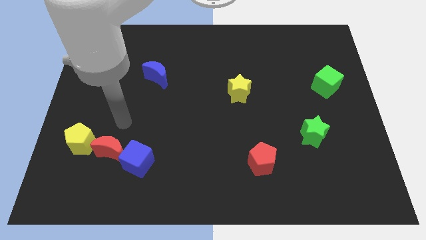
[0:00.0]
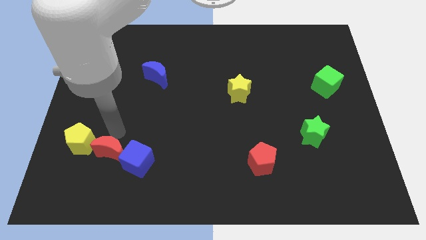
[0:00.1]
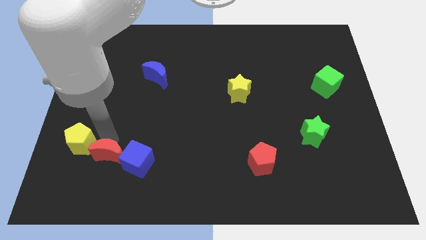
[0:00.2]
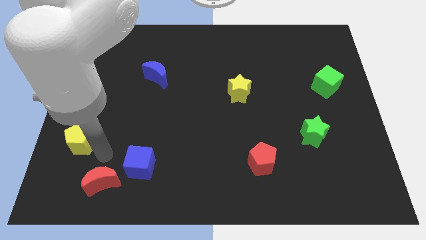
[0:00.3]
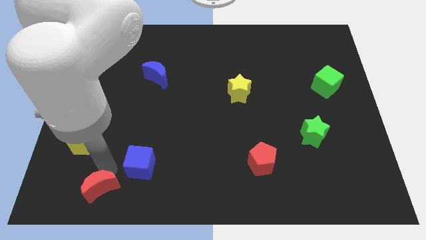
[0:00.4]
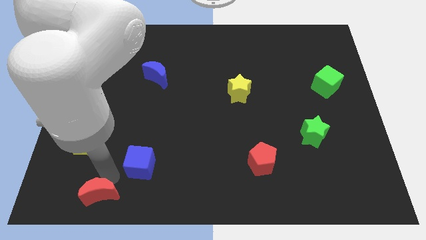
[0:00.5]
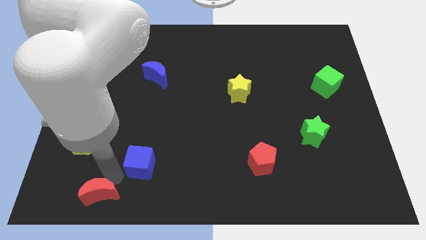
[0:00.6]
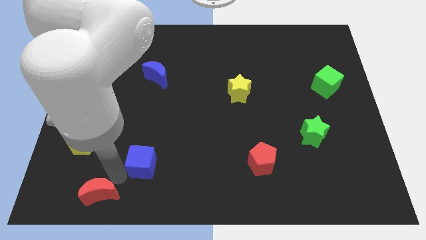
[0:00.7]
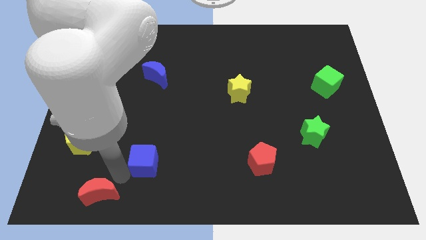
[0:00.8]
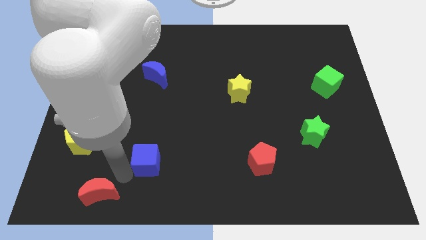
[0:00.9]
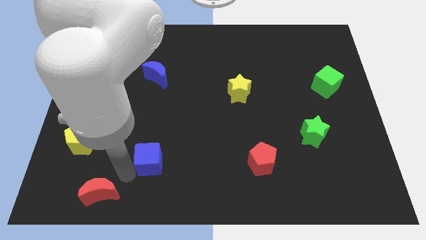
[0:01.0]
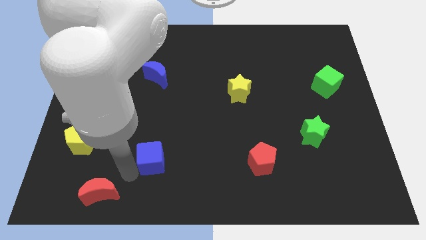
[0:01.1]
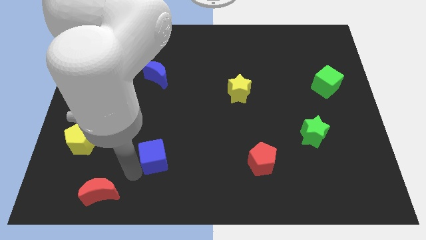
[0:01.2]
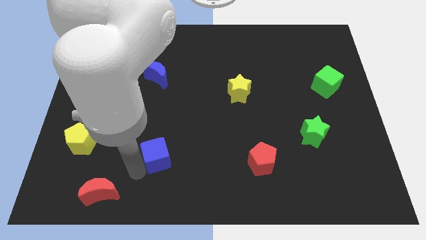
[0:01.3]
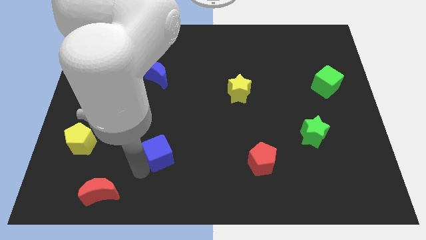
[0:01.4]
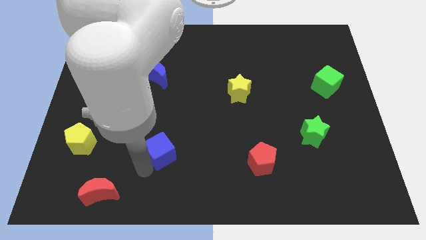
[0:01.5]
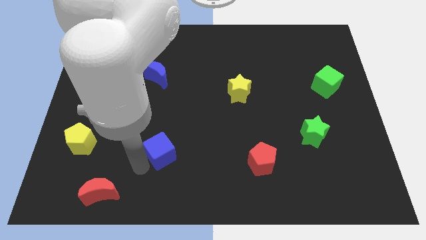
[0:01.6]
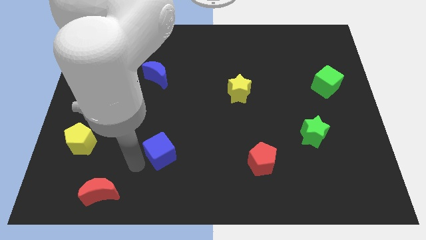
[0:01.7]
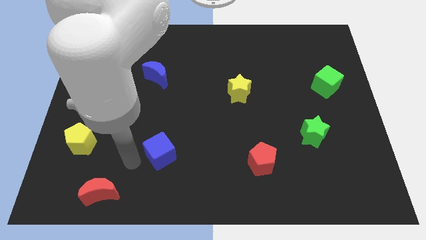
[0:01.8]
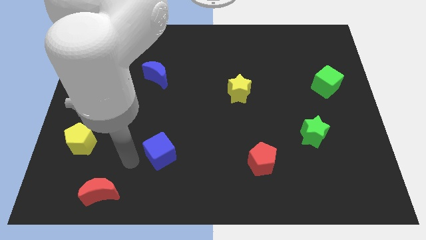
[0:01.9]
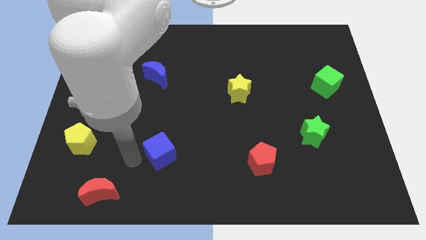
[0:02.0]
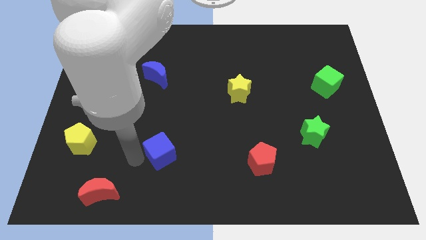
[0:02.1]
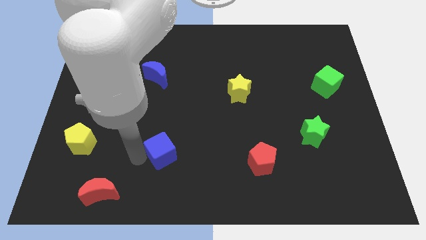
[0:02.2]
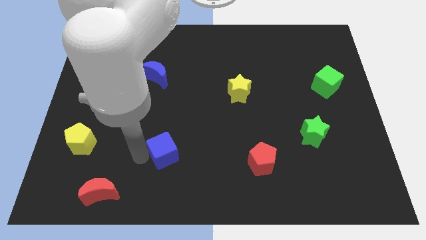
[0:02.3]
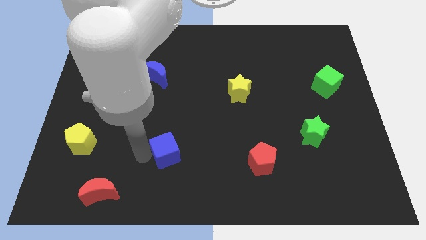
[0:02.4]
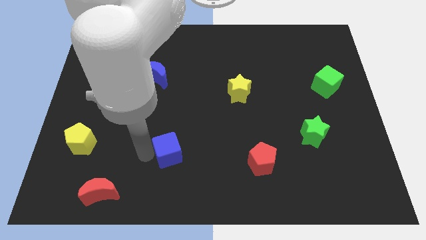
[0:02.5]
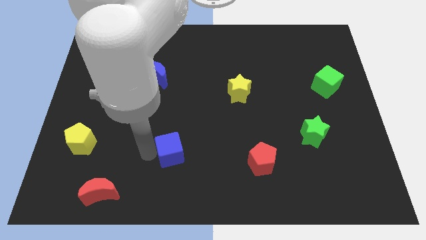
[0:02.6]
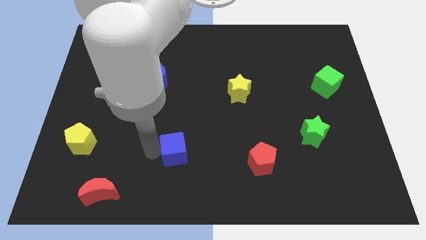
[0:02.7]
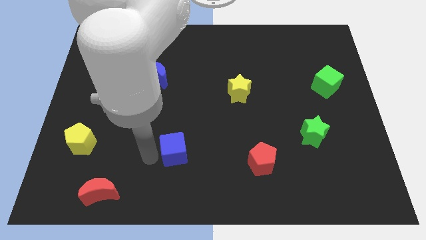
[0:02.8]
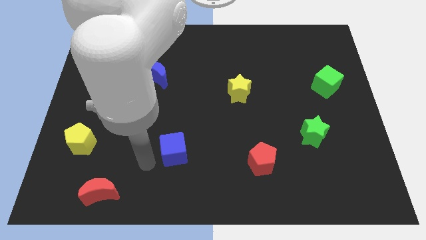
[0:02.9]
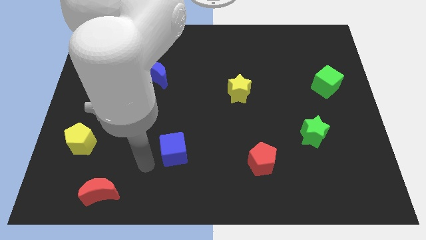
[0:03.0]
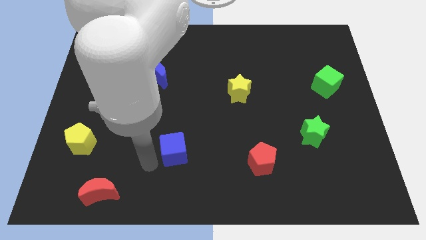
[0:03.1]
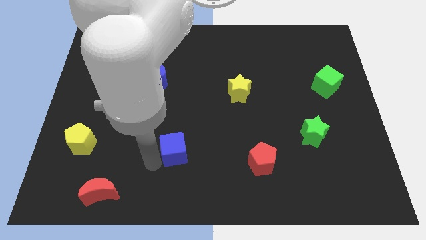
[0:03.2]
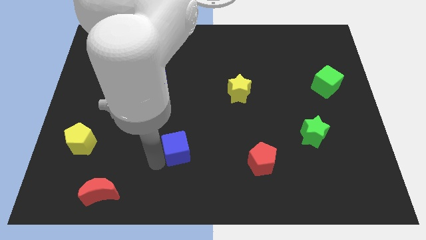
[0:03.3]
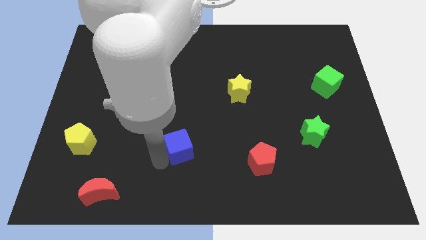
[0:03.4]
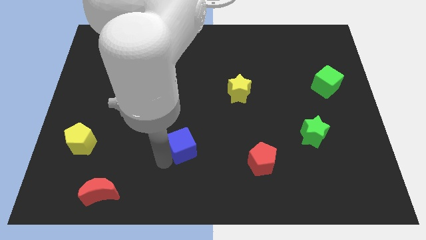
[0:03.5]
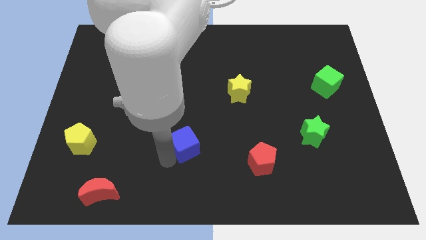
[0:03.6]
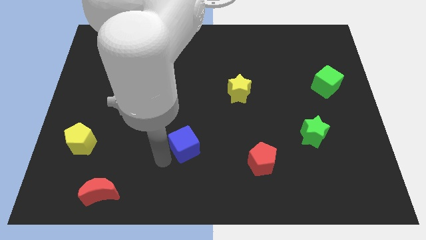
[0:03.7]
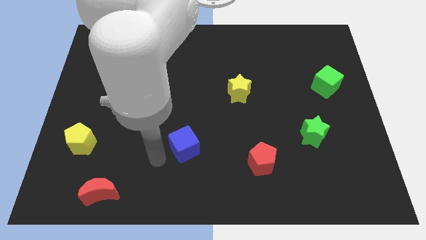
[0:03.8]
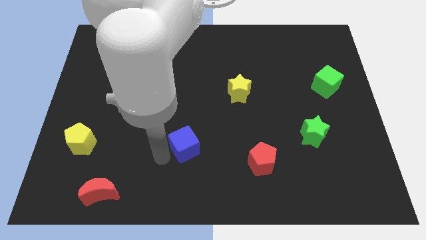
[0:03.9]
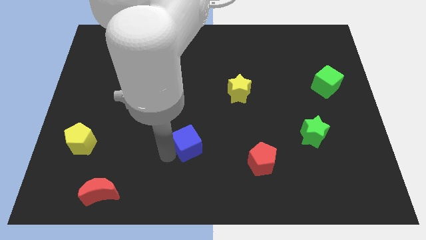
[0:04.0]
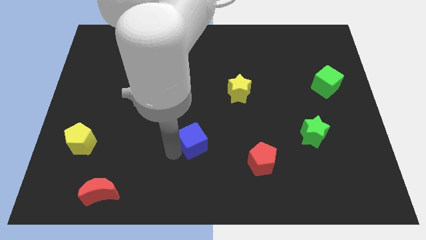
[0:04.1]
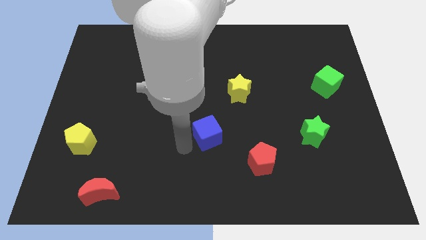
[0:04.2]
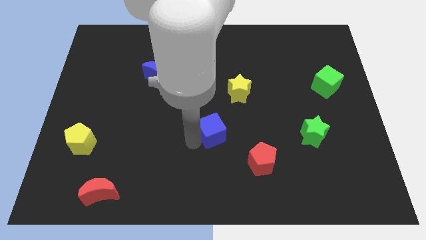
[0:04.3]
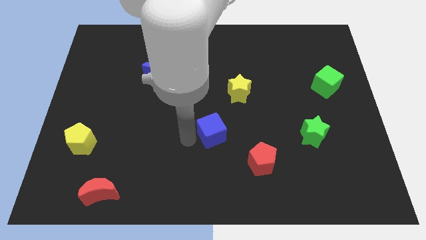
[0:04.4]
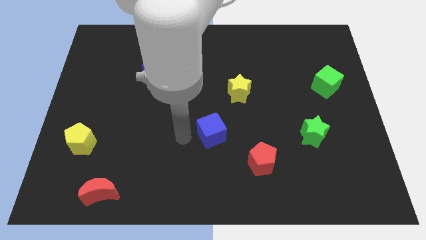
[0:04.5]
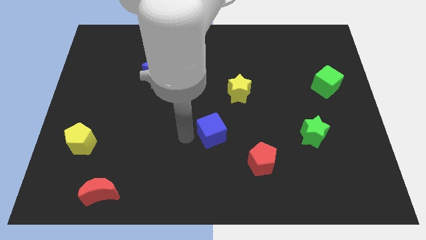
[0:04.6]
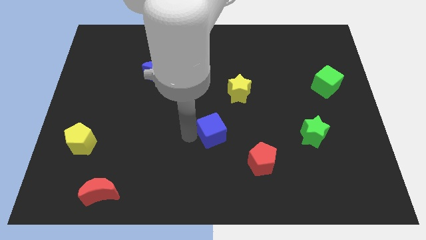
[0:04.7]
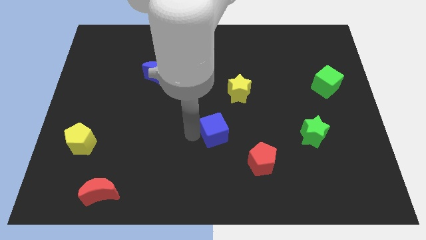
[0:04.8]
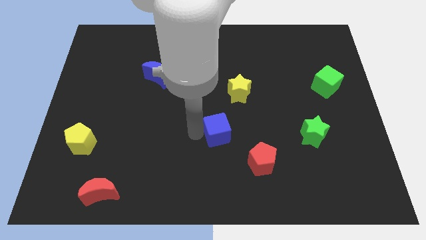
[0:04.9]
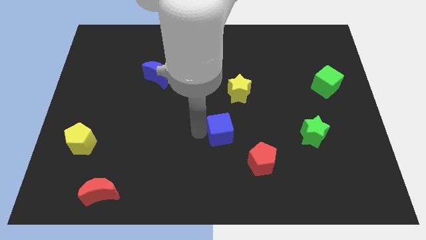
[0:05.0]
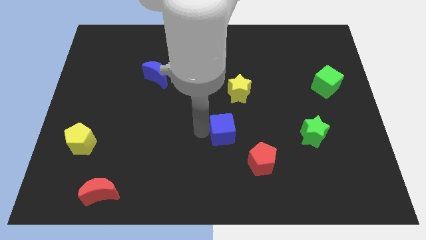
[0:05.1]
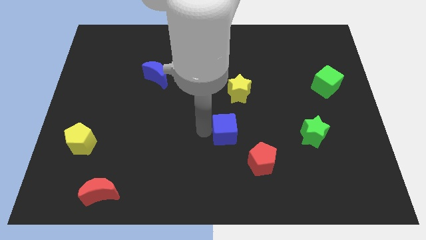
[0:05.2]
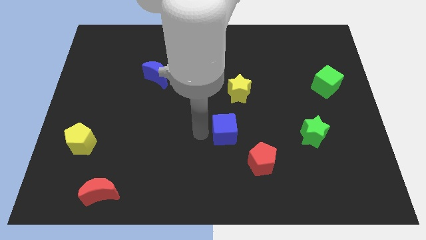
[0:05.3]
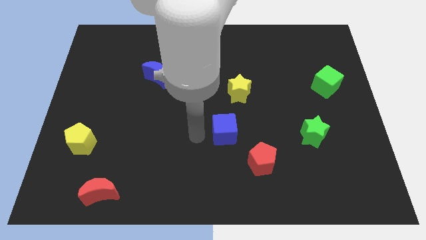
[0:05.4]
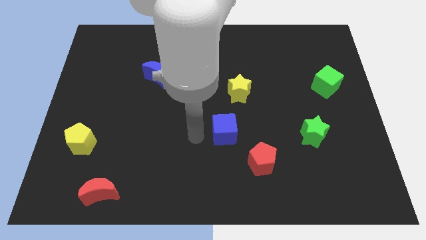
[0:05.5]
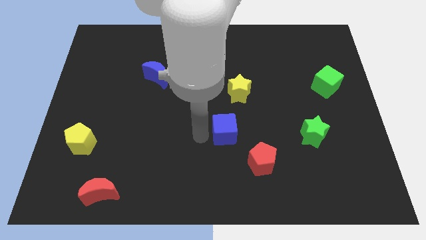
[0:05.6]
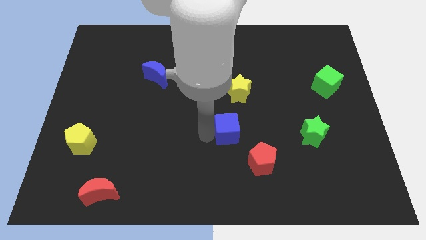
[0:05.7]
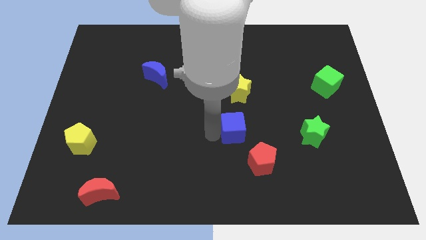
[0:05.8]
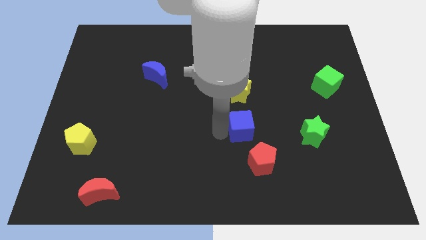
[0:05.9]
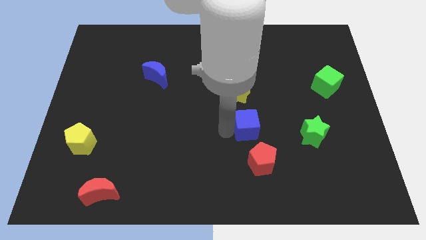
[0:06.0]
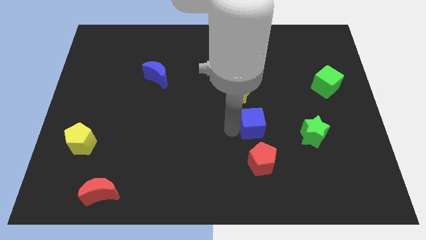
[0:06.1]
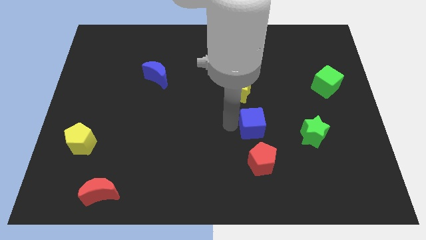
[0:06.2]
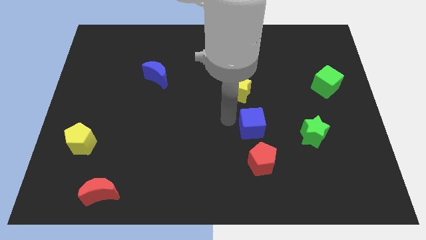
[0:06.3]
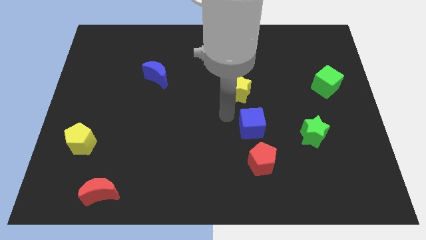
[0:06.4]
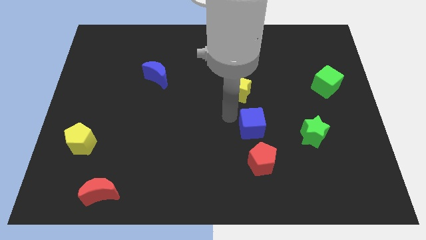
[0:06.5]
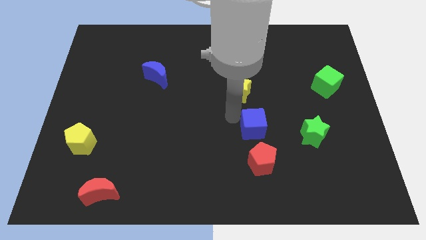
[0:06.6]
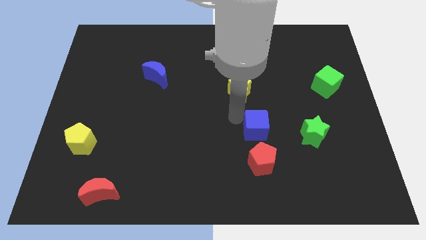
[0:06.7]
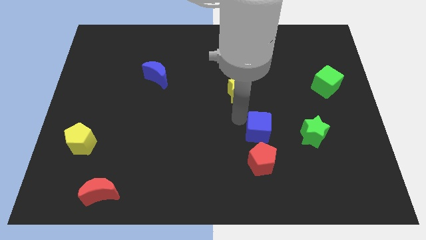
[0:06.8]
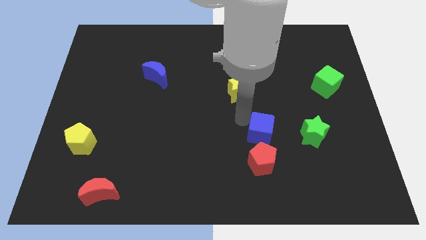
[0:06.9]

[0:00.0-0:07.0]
move the blue cube to the top right of the red pentagon

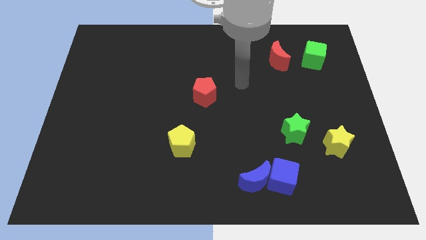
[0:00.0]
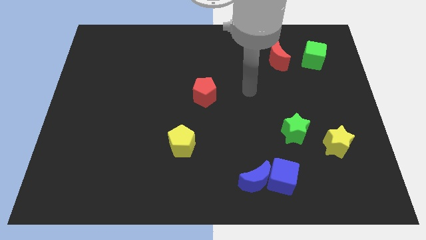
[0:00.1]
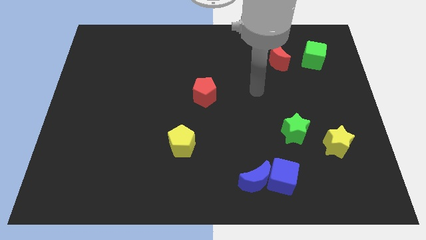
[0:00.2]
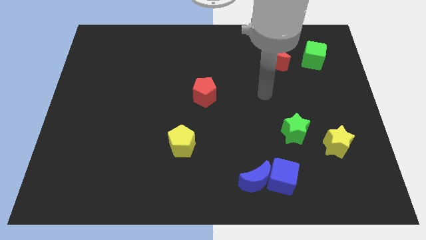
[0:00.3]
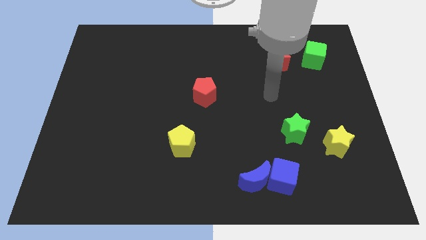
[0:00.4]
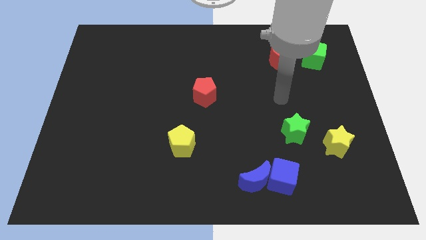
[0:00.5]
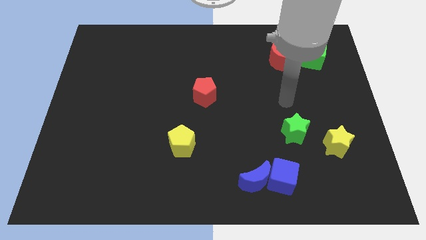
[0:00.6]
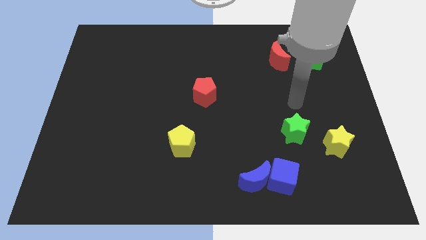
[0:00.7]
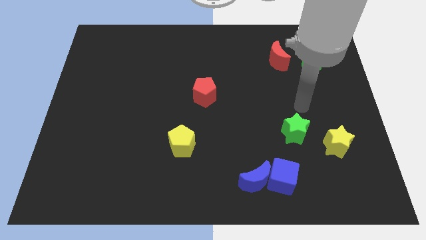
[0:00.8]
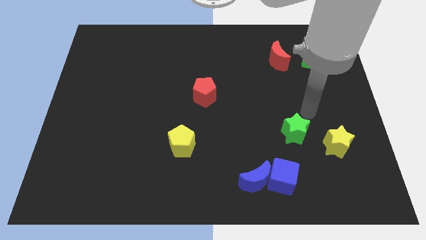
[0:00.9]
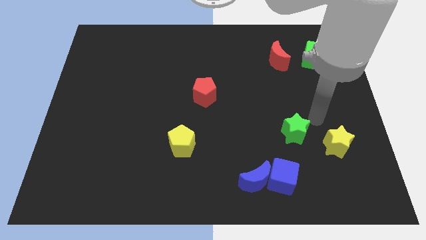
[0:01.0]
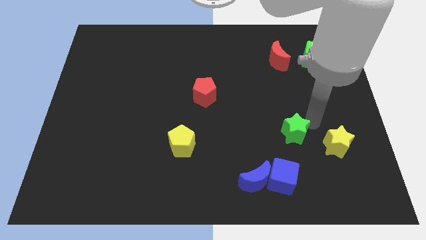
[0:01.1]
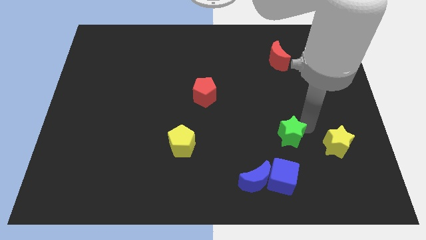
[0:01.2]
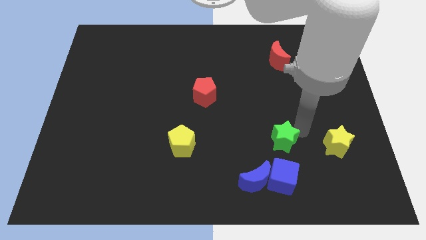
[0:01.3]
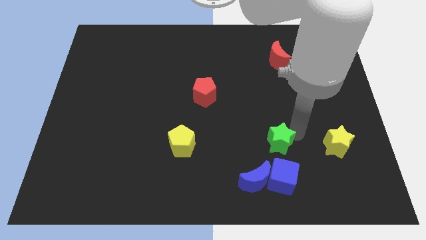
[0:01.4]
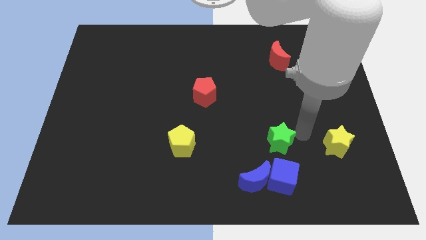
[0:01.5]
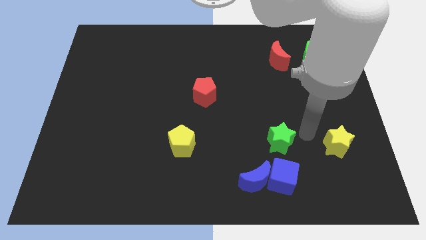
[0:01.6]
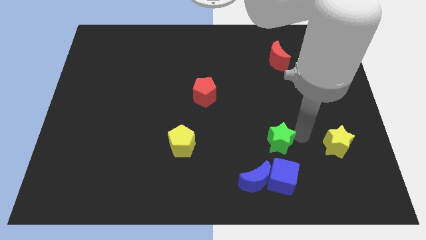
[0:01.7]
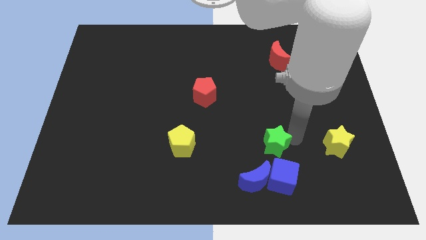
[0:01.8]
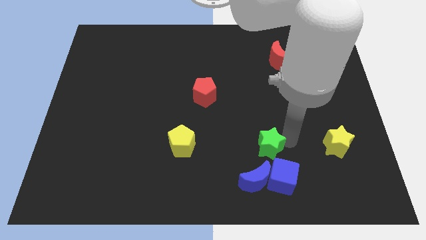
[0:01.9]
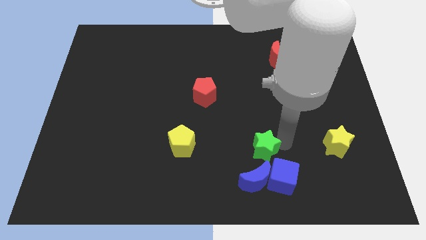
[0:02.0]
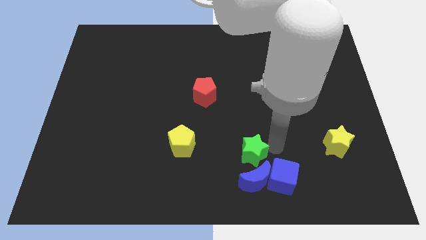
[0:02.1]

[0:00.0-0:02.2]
push the green star diagonally up and to the left of the blue moon
